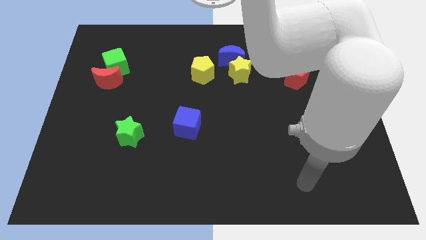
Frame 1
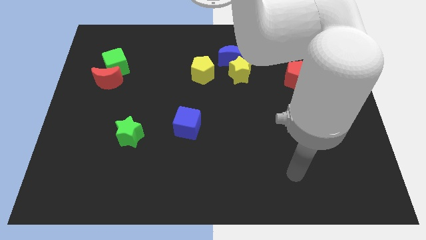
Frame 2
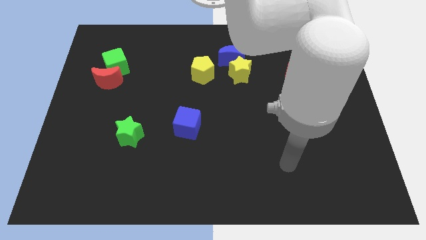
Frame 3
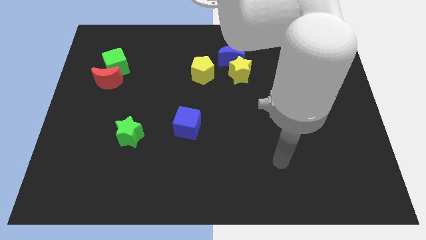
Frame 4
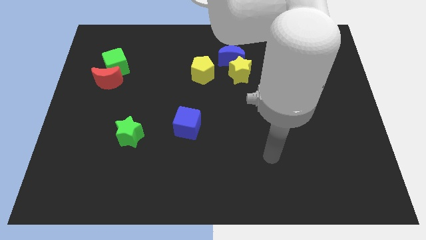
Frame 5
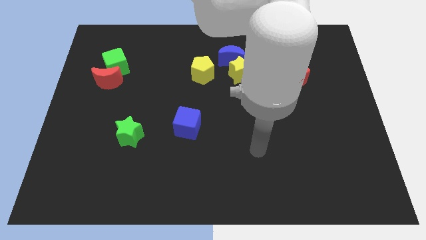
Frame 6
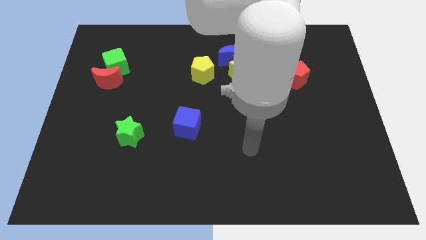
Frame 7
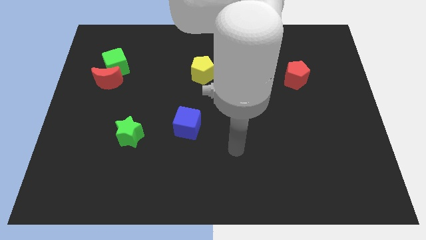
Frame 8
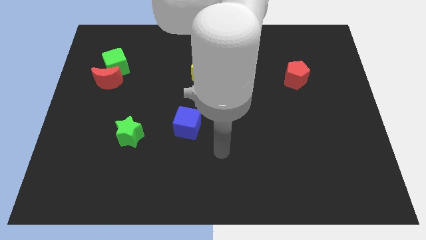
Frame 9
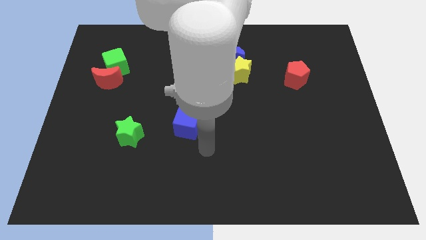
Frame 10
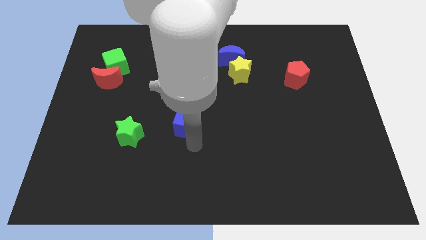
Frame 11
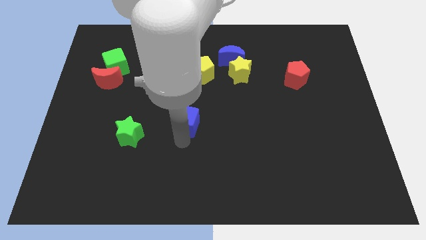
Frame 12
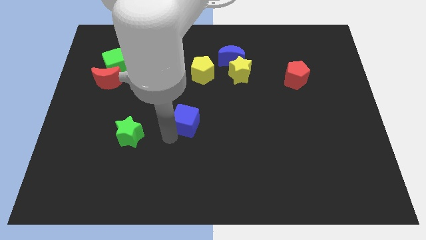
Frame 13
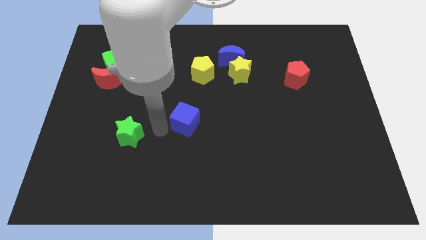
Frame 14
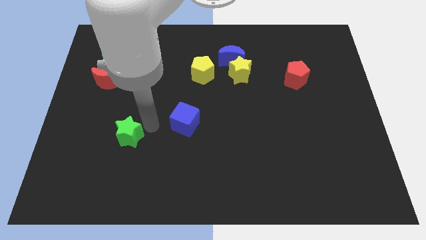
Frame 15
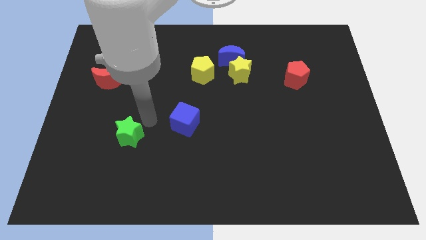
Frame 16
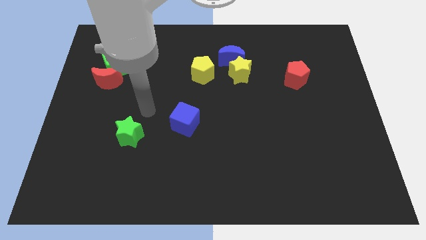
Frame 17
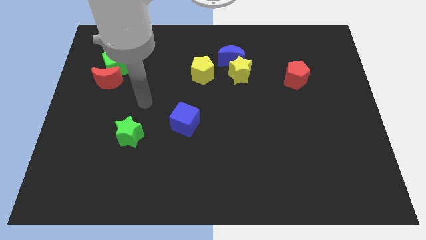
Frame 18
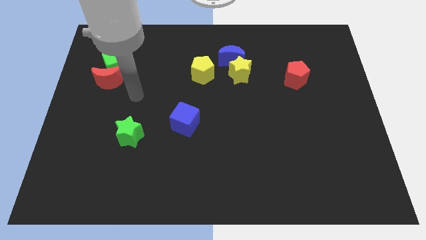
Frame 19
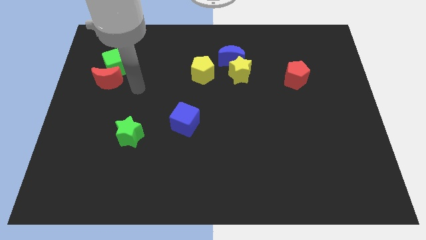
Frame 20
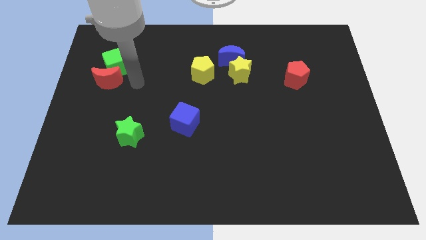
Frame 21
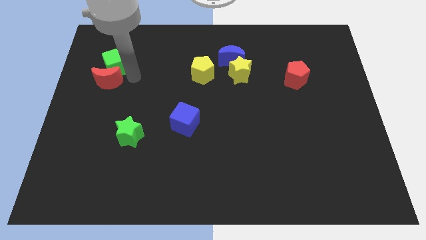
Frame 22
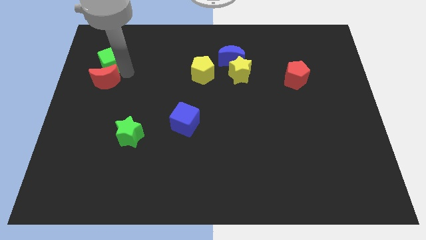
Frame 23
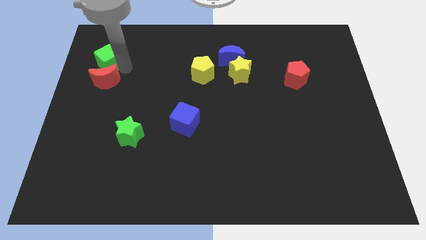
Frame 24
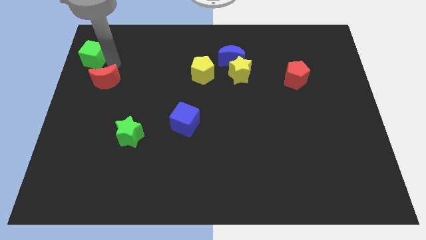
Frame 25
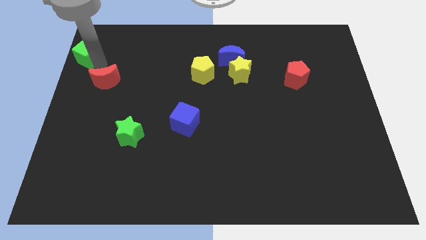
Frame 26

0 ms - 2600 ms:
separate the red moon from the green cube

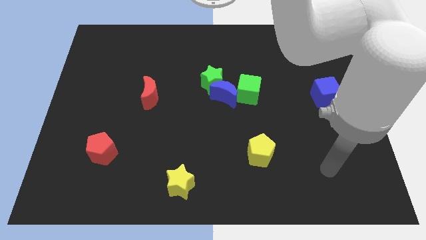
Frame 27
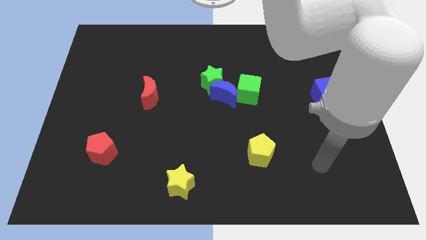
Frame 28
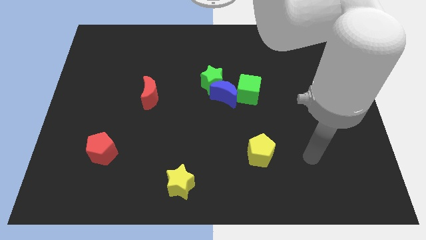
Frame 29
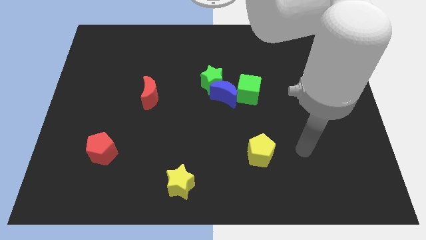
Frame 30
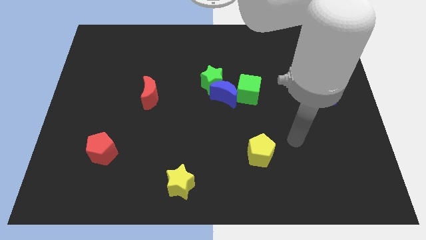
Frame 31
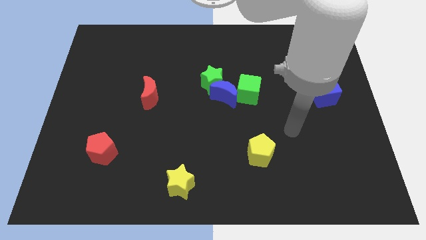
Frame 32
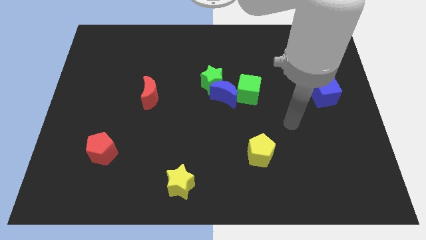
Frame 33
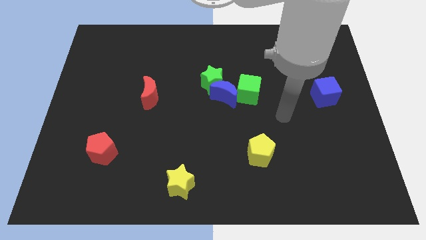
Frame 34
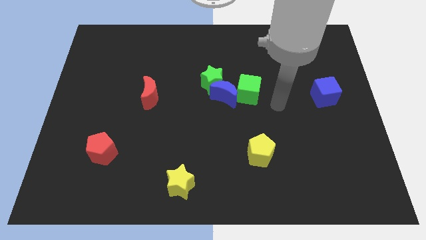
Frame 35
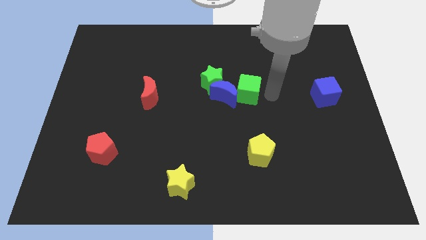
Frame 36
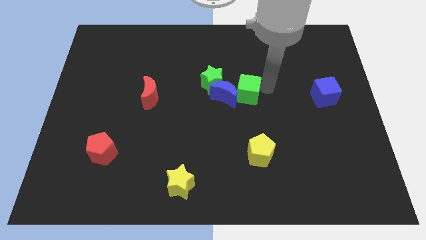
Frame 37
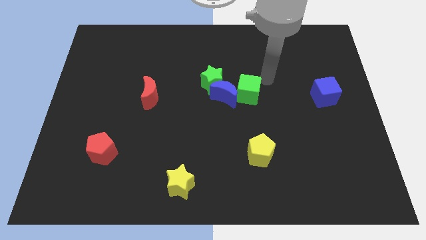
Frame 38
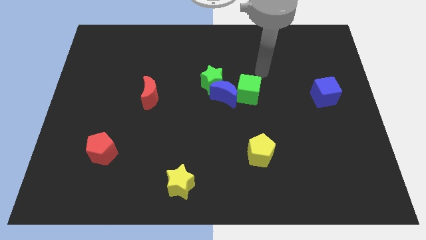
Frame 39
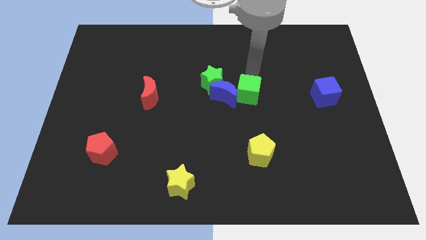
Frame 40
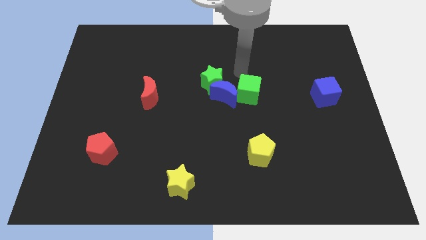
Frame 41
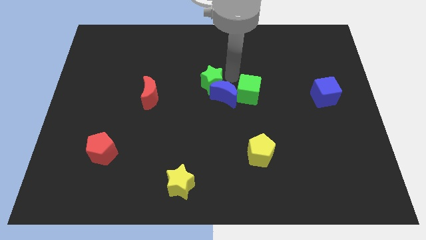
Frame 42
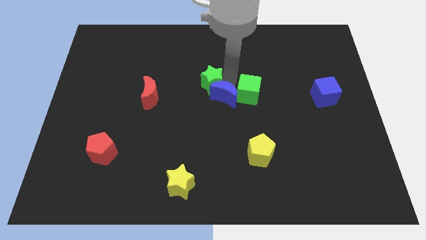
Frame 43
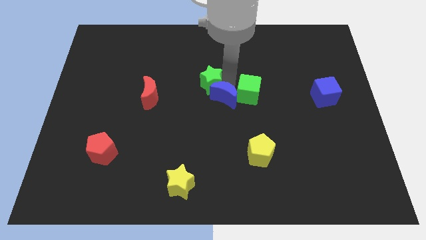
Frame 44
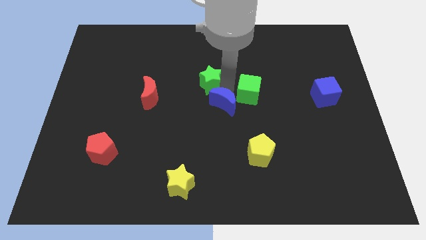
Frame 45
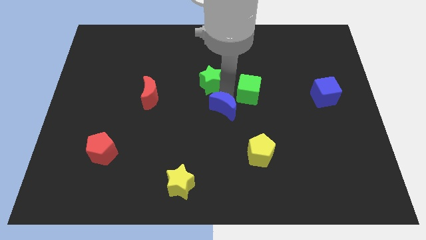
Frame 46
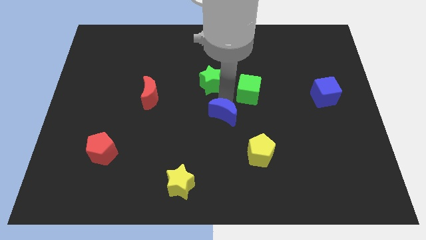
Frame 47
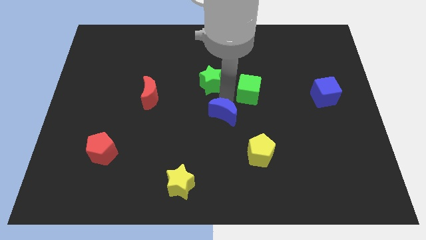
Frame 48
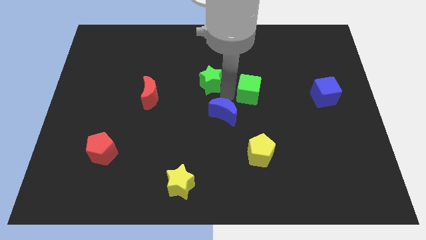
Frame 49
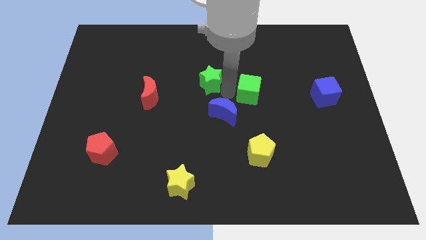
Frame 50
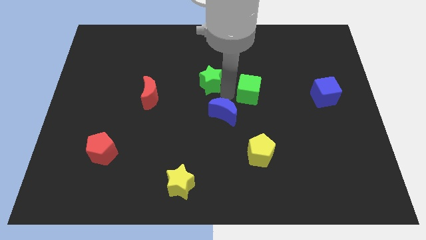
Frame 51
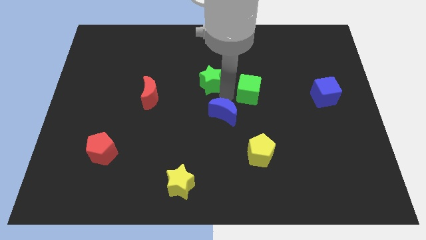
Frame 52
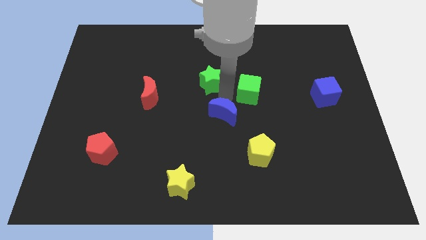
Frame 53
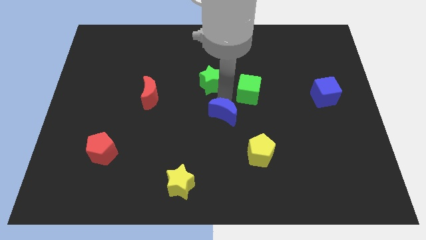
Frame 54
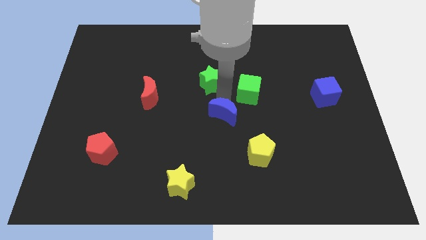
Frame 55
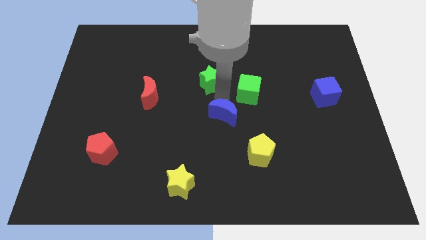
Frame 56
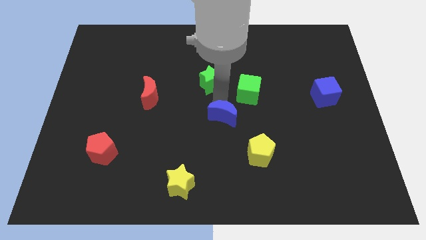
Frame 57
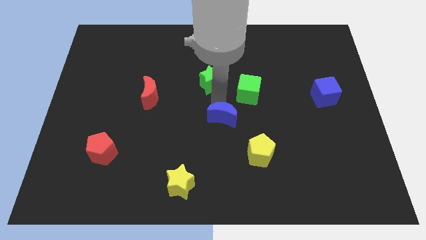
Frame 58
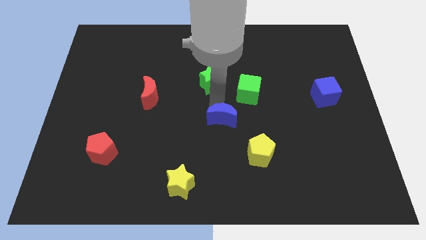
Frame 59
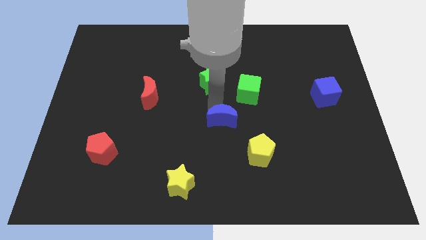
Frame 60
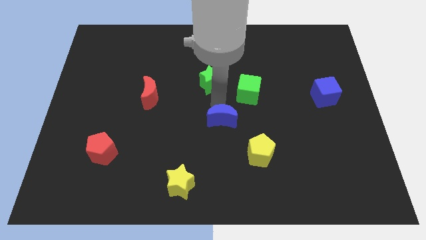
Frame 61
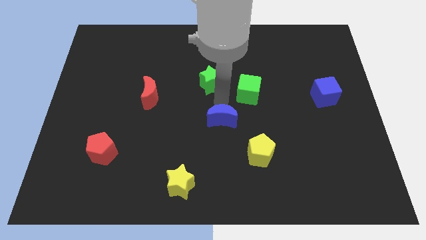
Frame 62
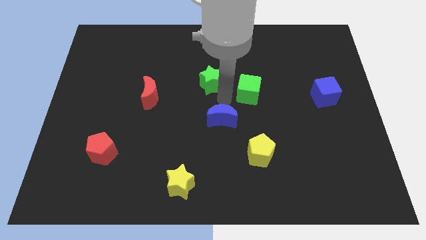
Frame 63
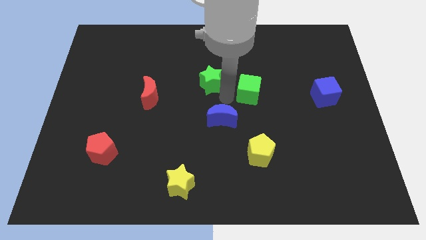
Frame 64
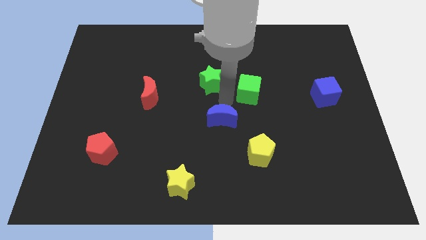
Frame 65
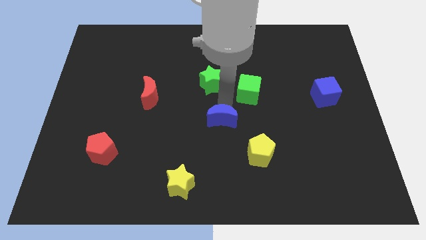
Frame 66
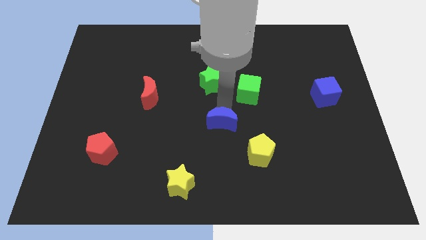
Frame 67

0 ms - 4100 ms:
move the blue moon away from the green star and green cube

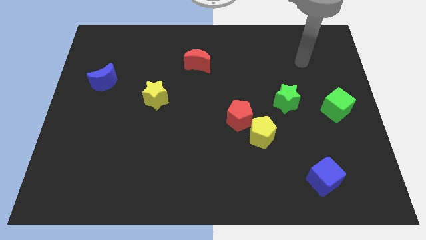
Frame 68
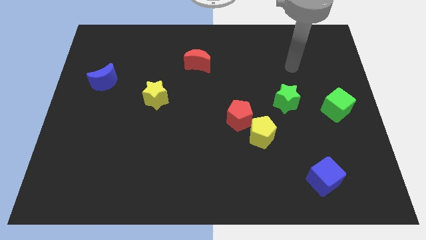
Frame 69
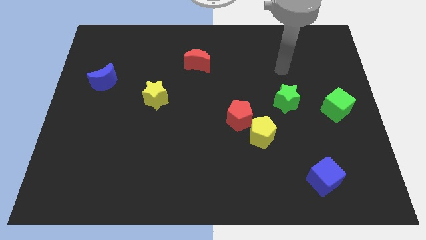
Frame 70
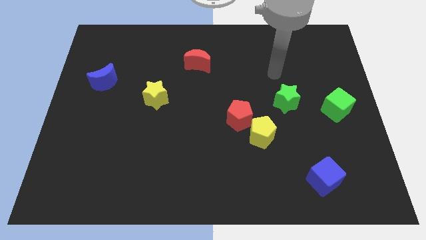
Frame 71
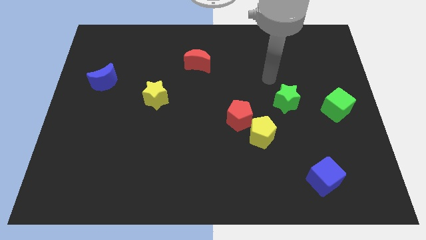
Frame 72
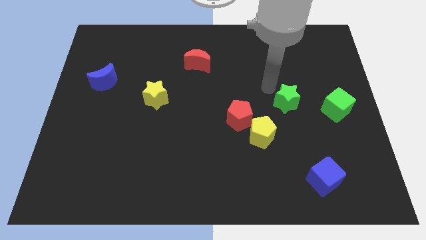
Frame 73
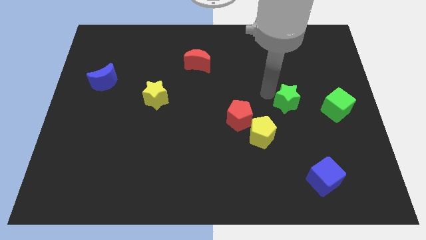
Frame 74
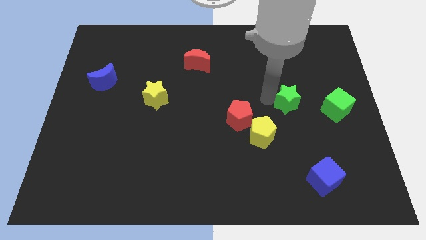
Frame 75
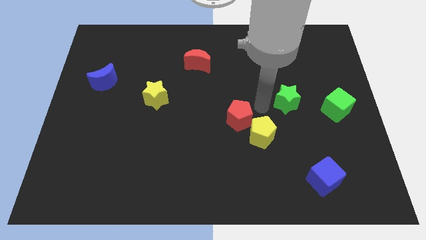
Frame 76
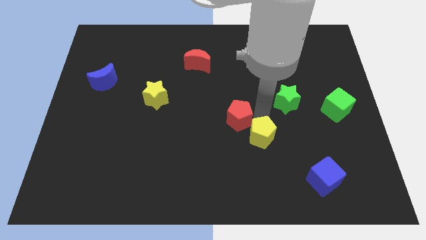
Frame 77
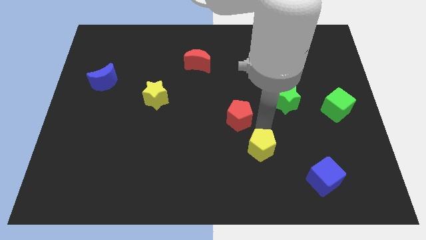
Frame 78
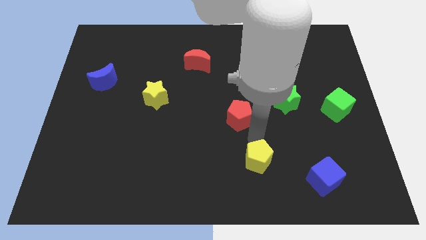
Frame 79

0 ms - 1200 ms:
pull the red pentagon apart from the yellow pentagon

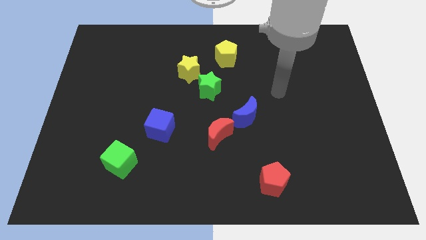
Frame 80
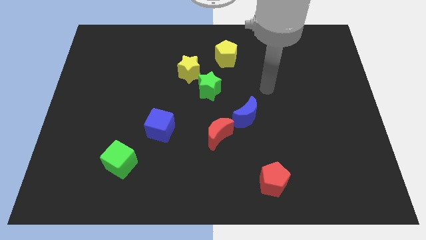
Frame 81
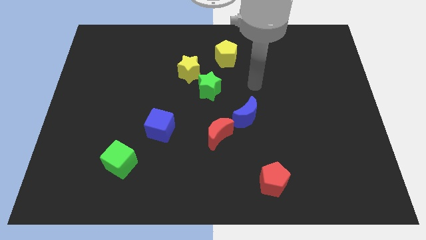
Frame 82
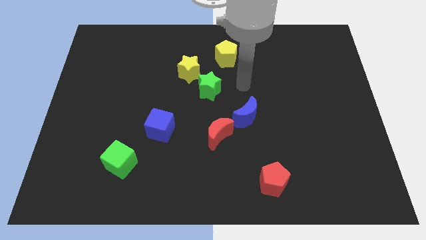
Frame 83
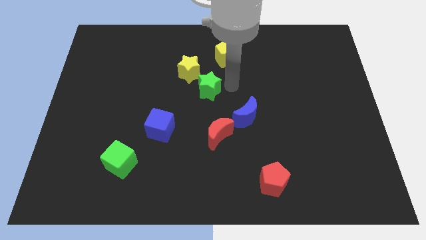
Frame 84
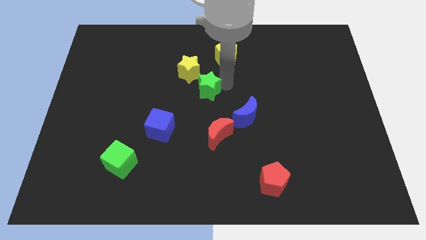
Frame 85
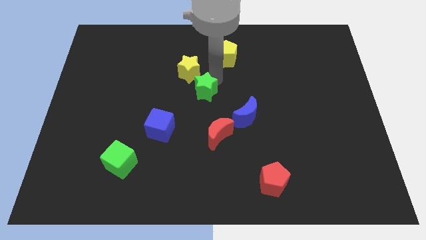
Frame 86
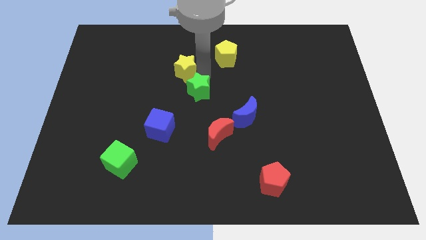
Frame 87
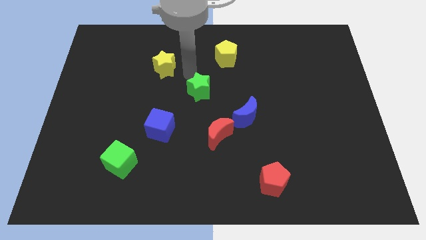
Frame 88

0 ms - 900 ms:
move the green star away from the yellow star

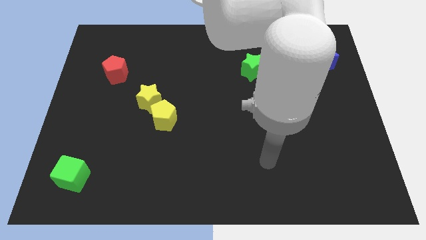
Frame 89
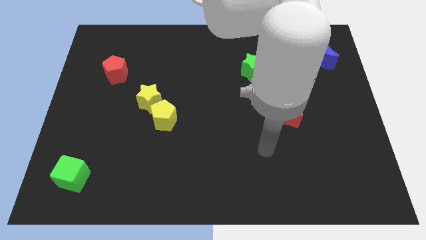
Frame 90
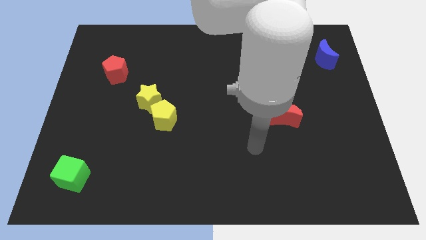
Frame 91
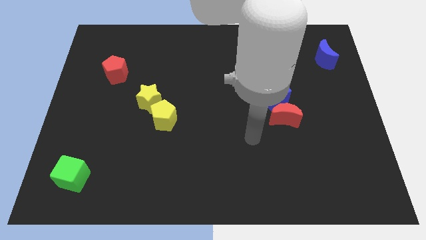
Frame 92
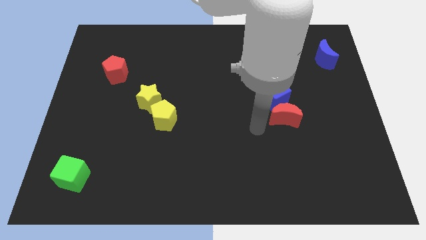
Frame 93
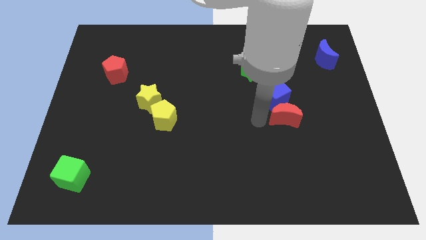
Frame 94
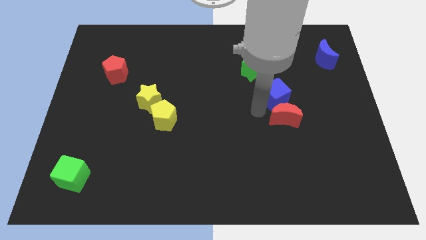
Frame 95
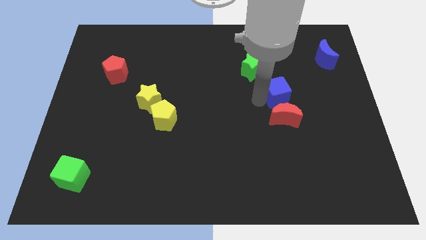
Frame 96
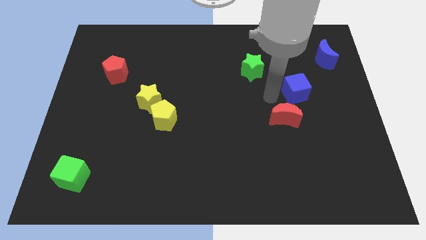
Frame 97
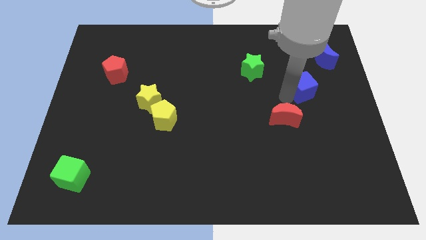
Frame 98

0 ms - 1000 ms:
move the red moon away from the blue cube
